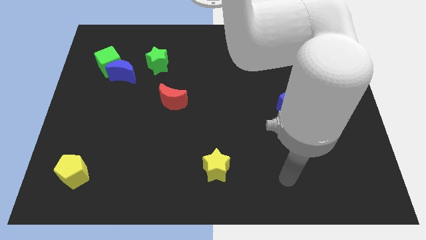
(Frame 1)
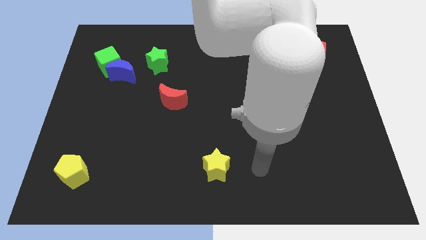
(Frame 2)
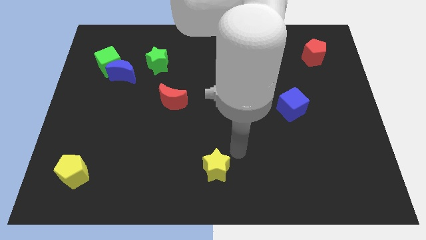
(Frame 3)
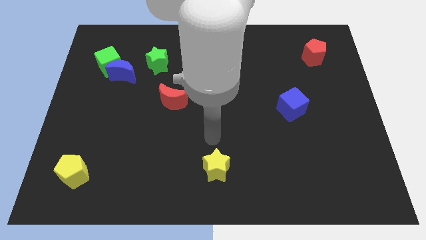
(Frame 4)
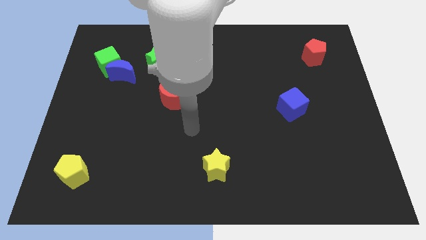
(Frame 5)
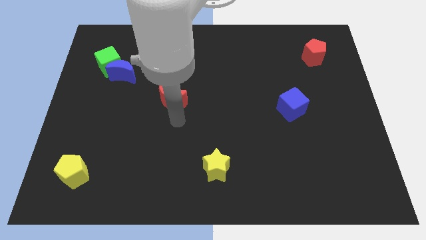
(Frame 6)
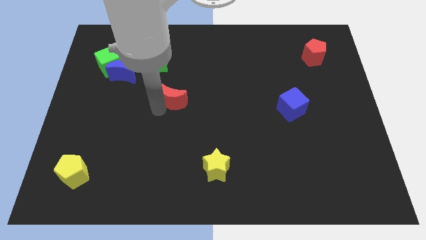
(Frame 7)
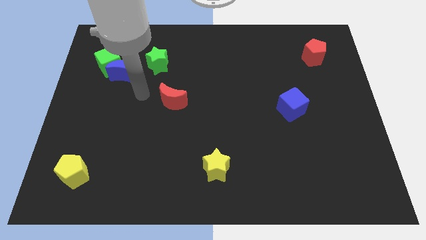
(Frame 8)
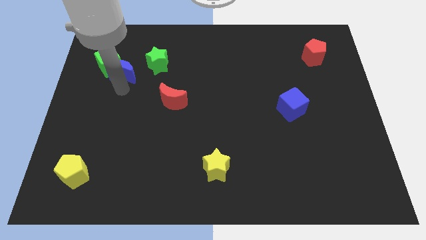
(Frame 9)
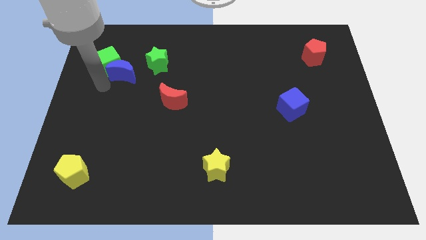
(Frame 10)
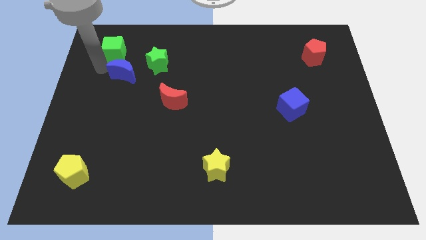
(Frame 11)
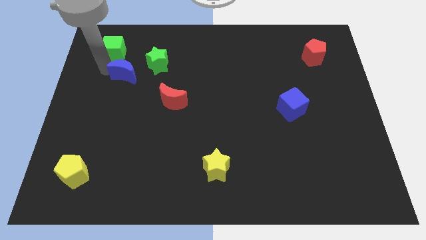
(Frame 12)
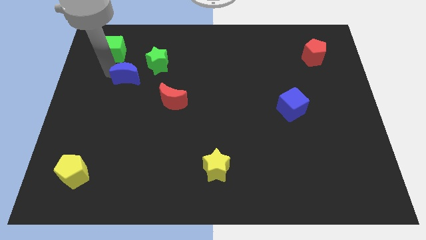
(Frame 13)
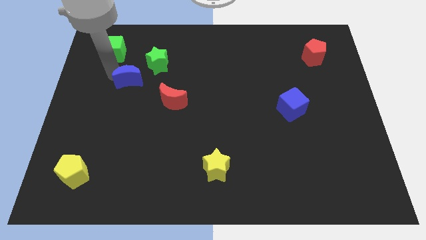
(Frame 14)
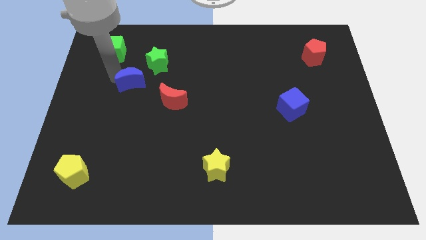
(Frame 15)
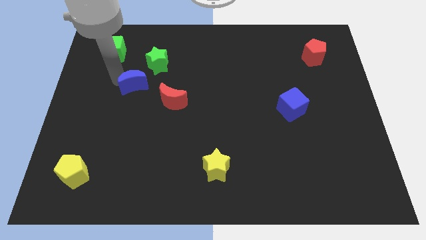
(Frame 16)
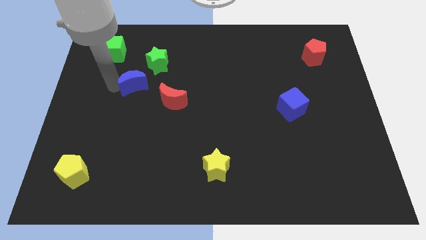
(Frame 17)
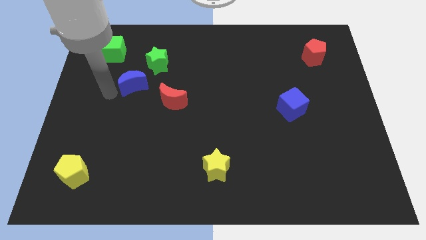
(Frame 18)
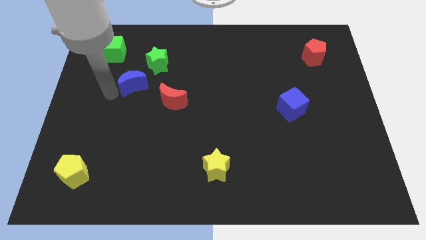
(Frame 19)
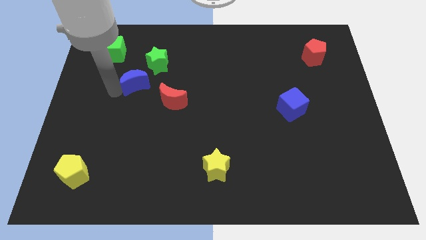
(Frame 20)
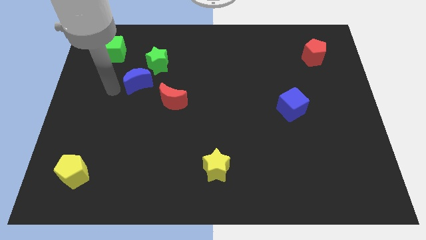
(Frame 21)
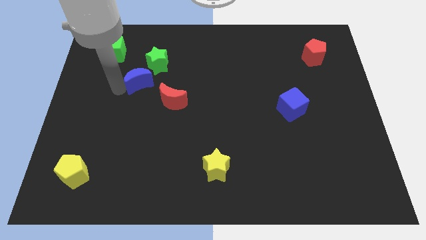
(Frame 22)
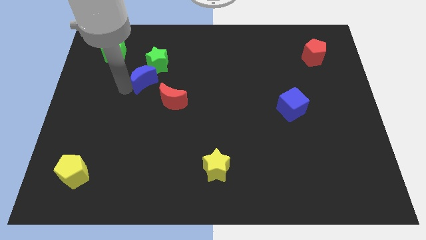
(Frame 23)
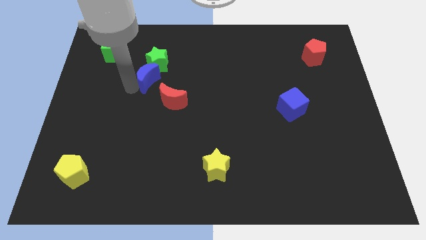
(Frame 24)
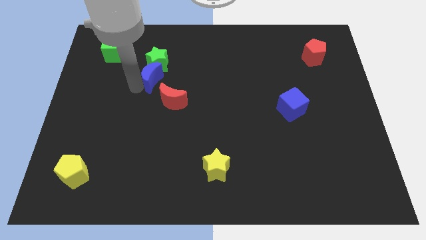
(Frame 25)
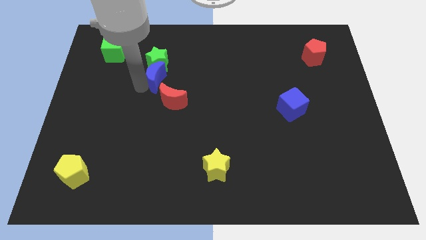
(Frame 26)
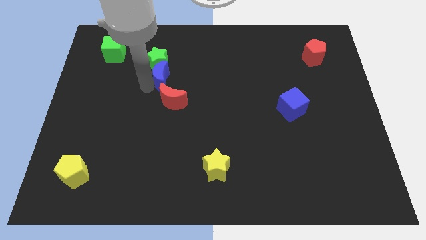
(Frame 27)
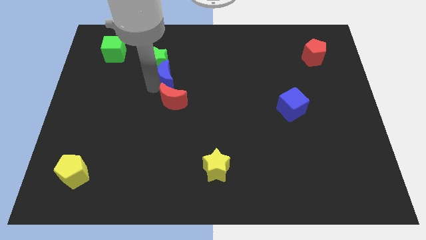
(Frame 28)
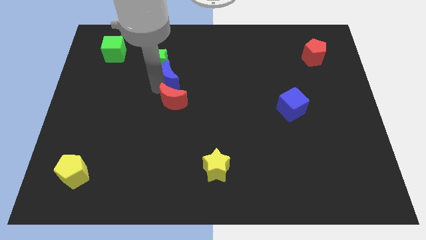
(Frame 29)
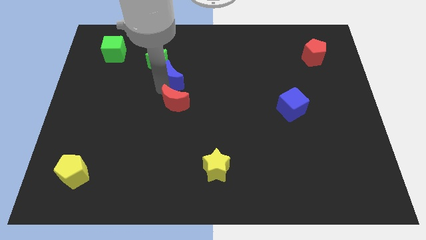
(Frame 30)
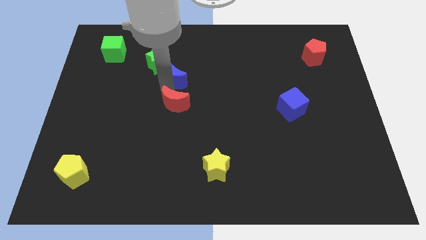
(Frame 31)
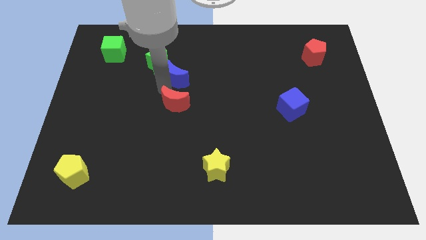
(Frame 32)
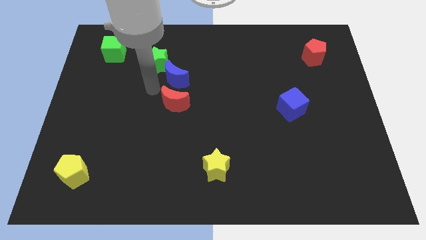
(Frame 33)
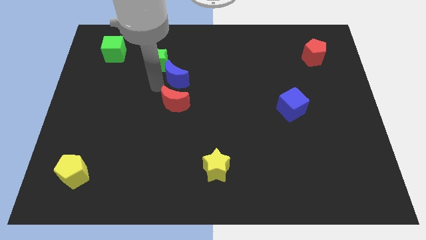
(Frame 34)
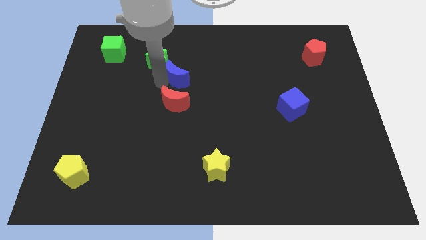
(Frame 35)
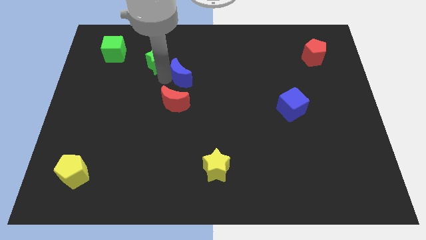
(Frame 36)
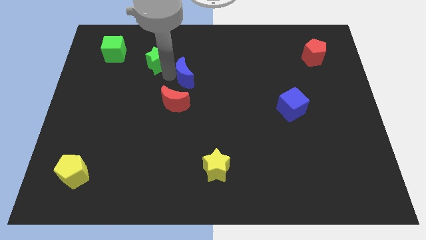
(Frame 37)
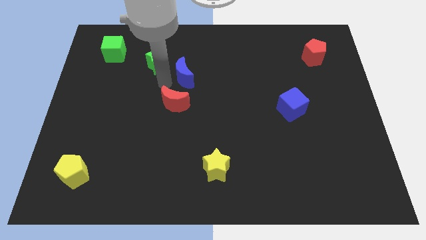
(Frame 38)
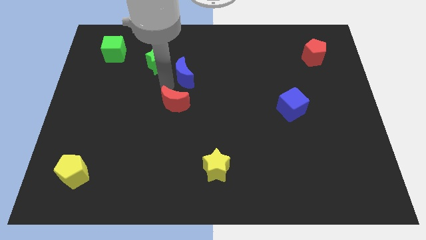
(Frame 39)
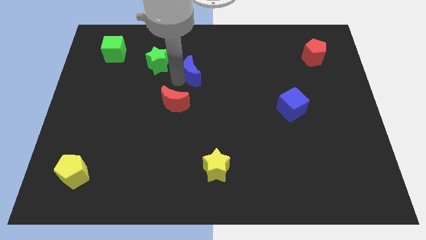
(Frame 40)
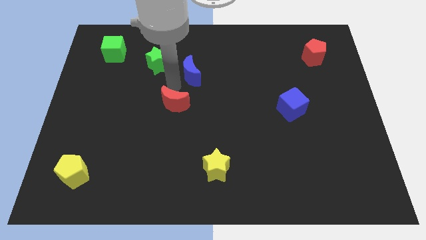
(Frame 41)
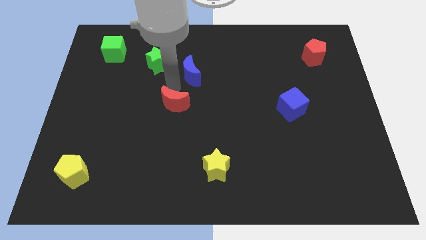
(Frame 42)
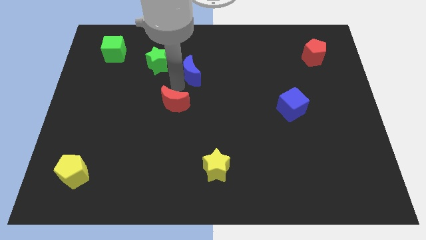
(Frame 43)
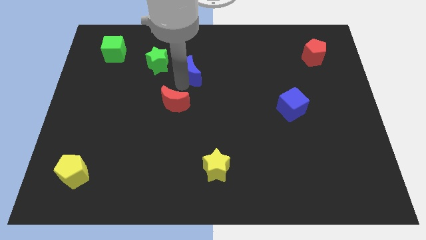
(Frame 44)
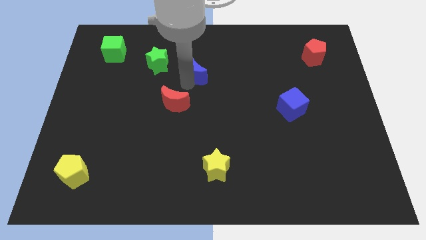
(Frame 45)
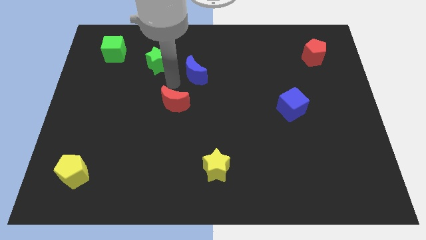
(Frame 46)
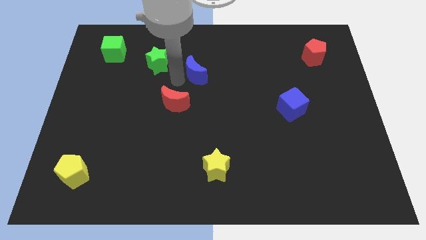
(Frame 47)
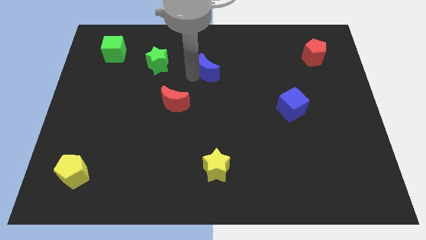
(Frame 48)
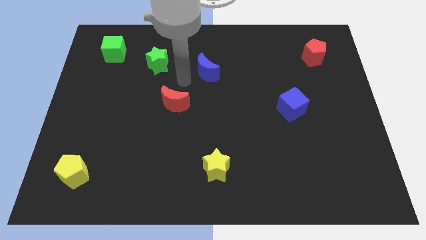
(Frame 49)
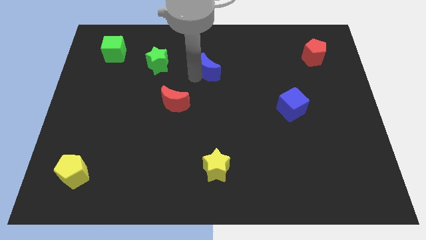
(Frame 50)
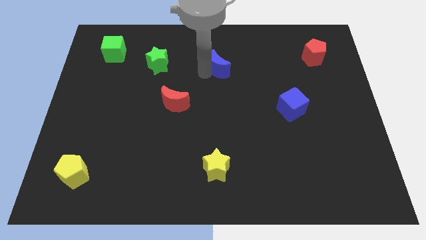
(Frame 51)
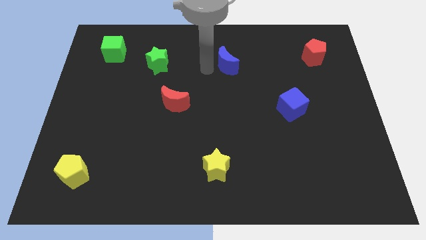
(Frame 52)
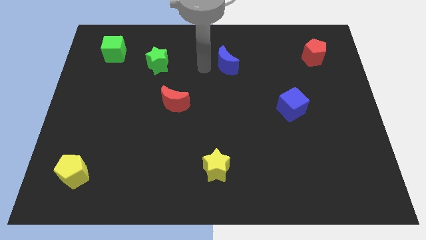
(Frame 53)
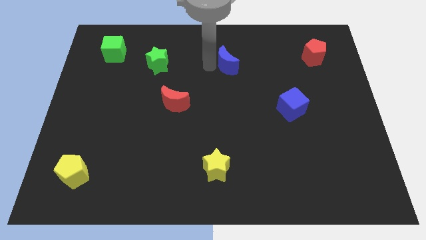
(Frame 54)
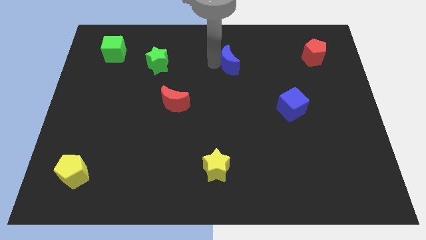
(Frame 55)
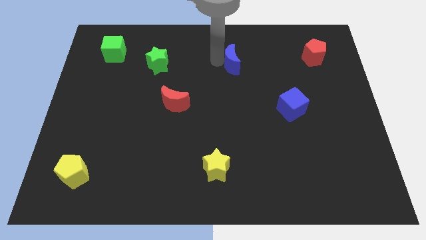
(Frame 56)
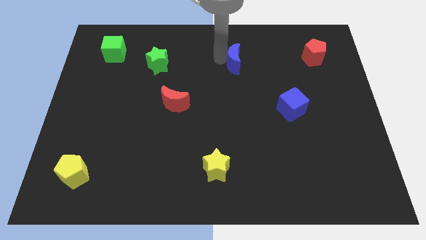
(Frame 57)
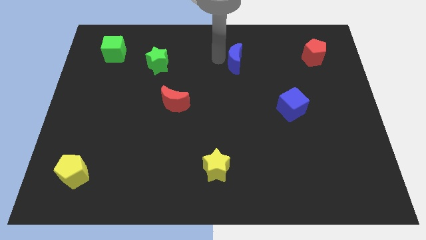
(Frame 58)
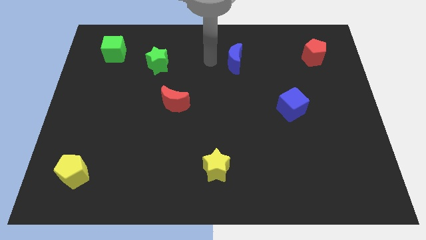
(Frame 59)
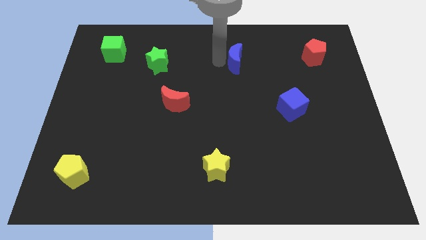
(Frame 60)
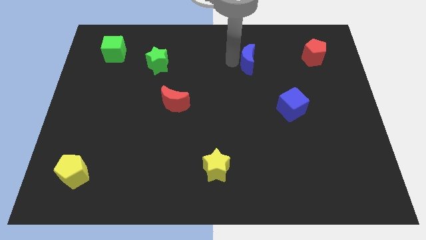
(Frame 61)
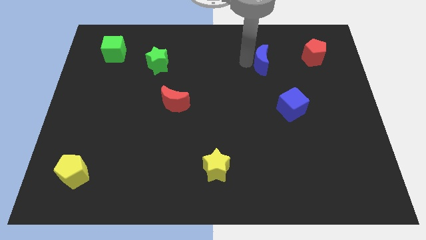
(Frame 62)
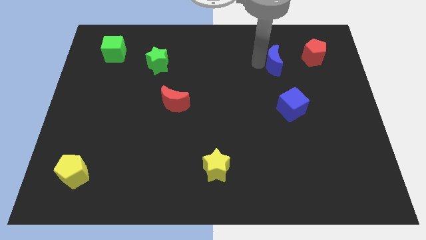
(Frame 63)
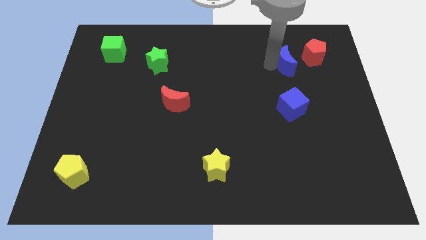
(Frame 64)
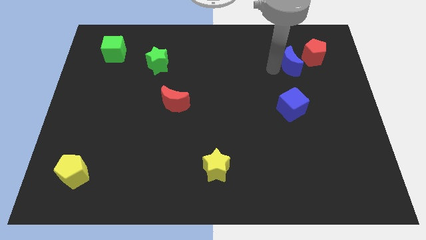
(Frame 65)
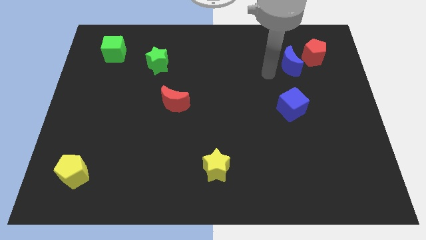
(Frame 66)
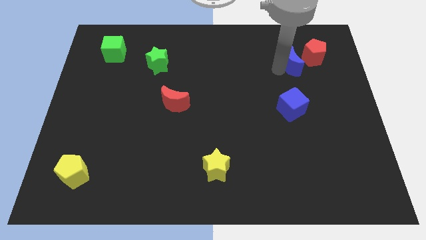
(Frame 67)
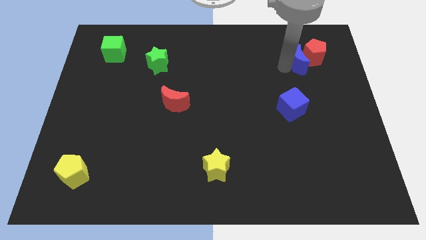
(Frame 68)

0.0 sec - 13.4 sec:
push the blue moon next to the red pentagon

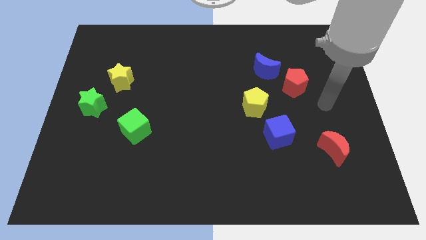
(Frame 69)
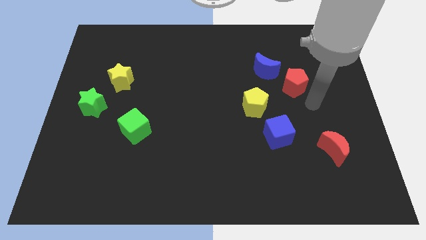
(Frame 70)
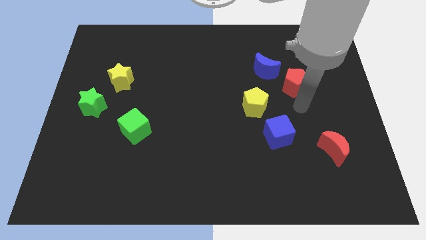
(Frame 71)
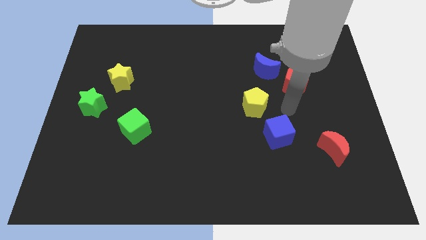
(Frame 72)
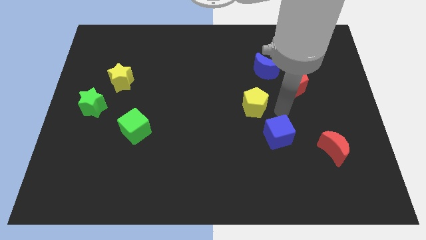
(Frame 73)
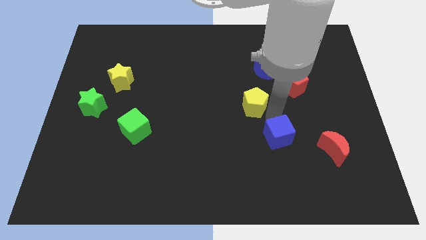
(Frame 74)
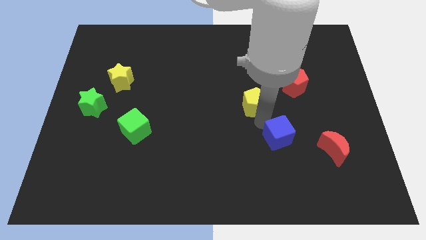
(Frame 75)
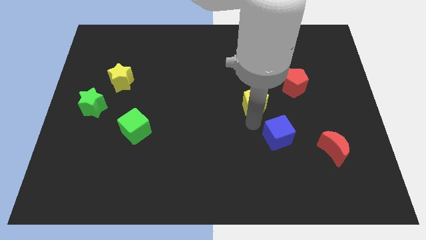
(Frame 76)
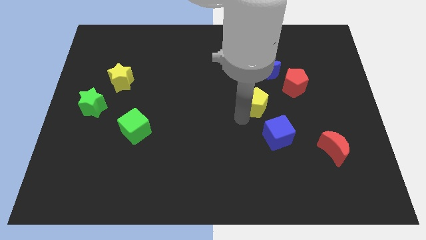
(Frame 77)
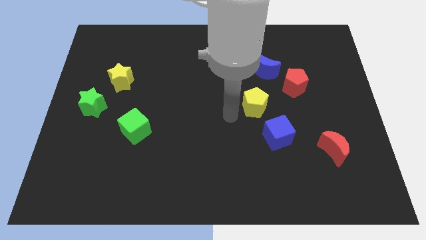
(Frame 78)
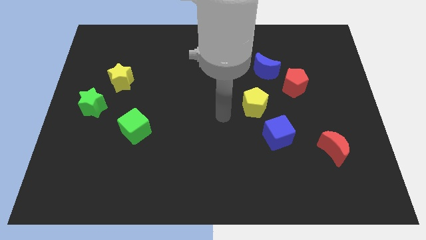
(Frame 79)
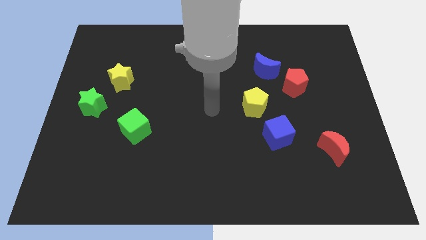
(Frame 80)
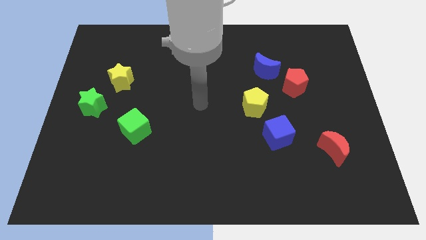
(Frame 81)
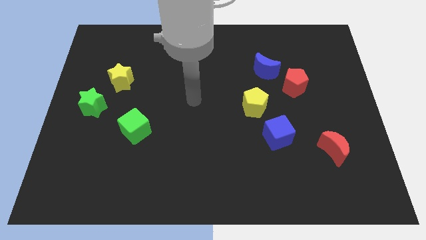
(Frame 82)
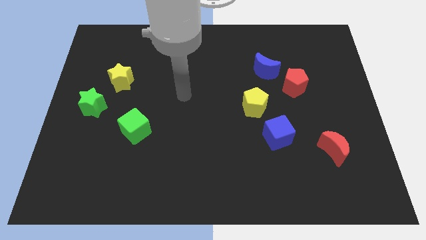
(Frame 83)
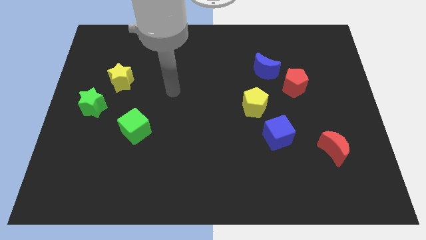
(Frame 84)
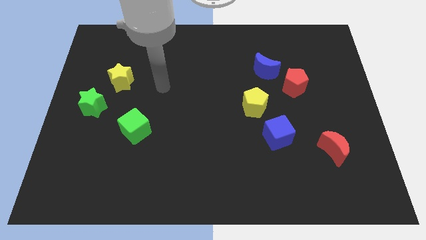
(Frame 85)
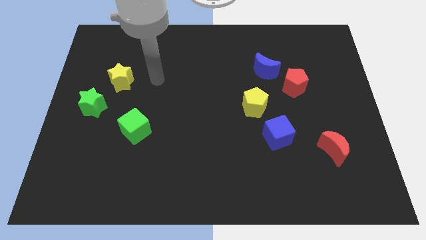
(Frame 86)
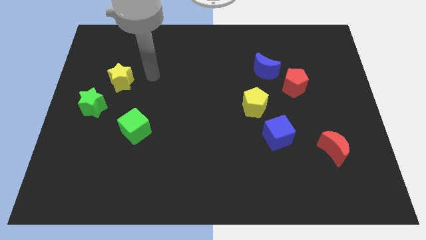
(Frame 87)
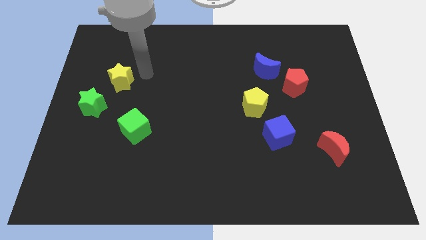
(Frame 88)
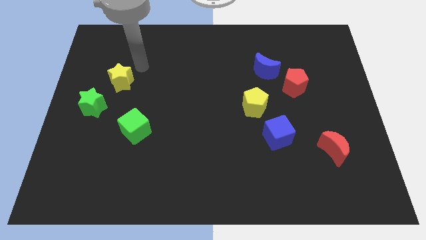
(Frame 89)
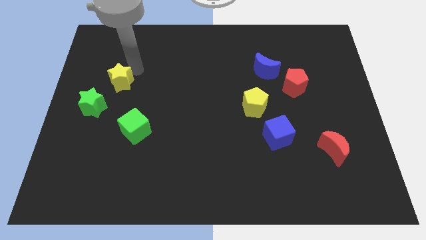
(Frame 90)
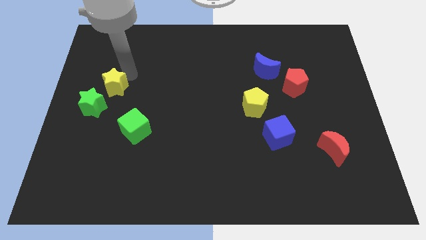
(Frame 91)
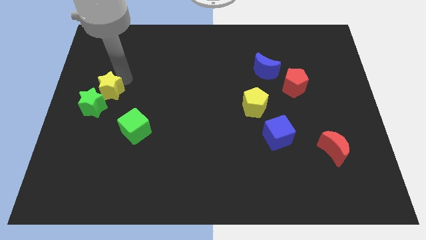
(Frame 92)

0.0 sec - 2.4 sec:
move the yellow star towards the green star
